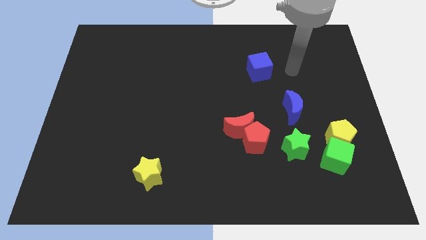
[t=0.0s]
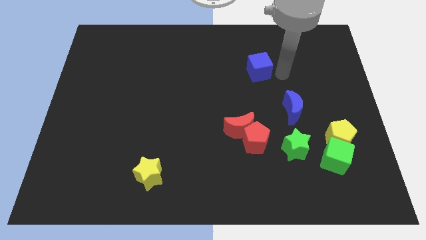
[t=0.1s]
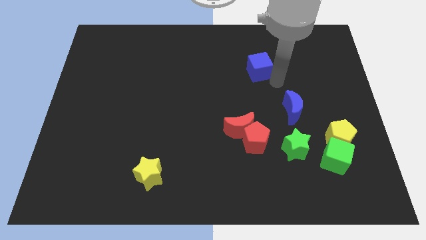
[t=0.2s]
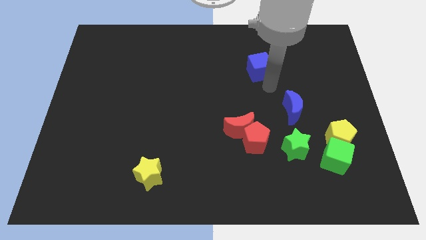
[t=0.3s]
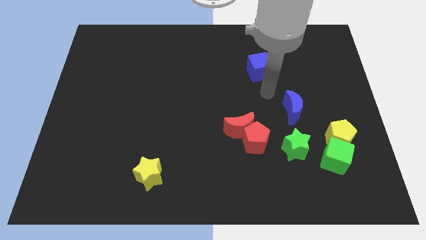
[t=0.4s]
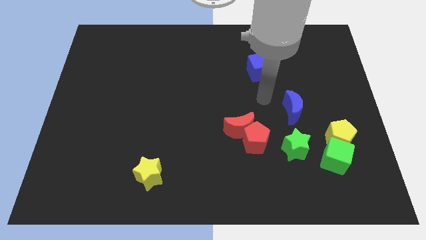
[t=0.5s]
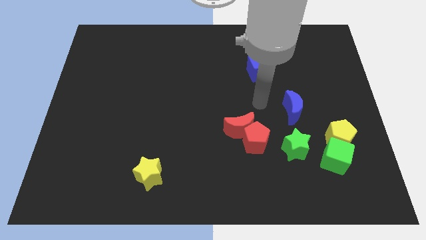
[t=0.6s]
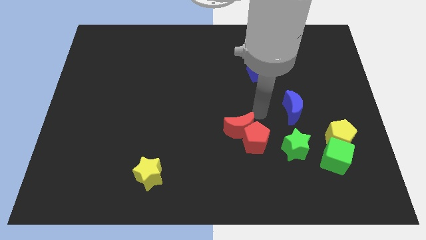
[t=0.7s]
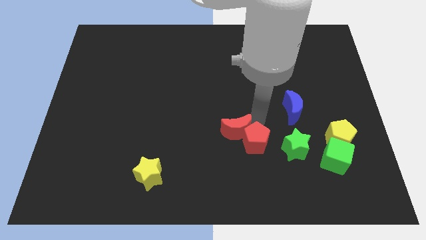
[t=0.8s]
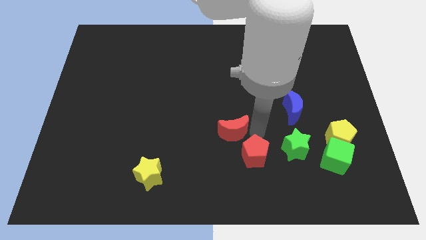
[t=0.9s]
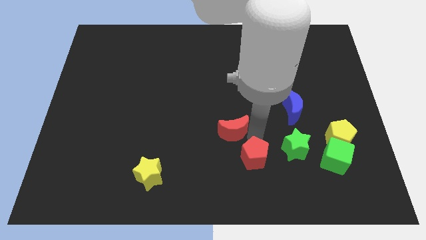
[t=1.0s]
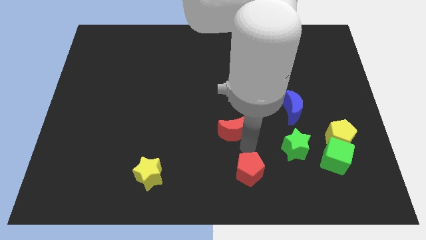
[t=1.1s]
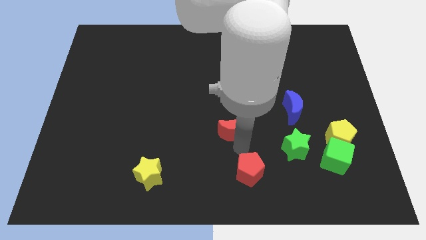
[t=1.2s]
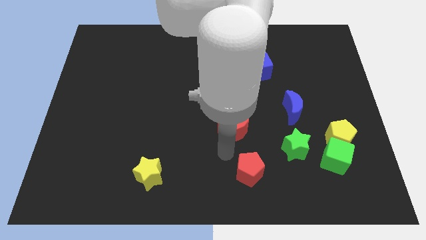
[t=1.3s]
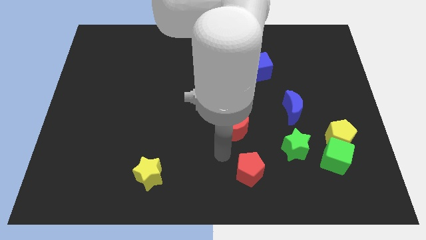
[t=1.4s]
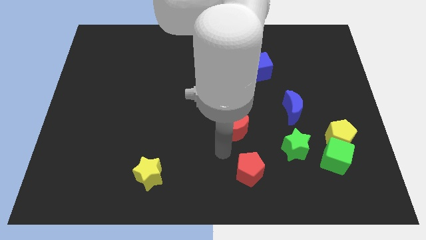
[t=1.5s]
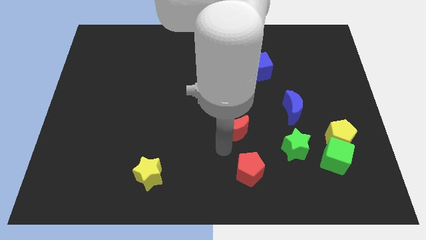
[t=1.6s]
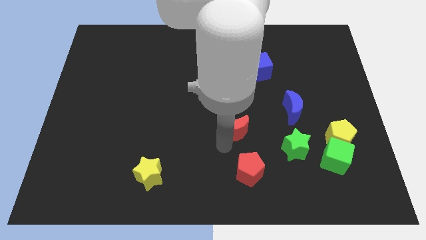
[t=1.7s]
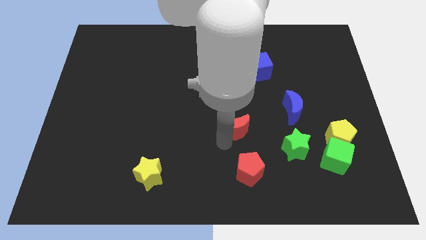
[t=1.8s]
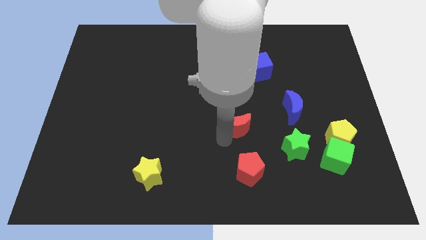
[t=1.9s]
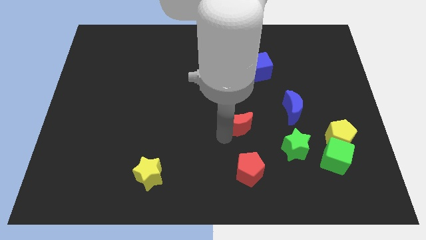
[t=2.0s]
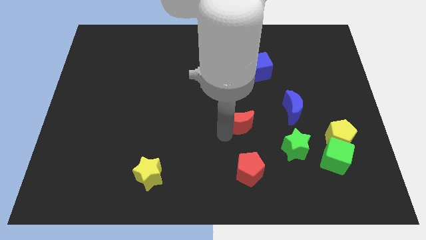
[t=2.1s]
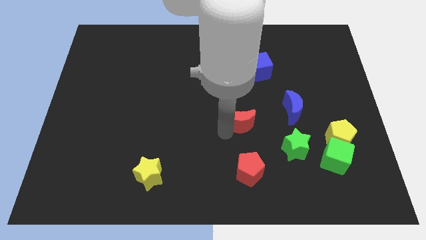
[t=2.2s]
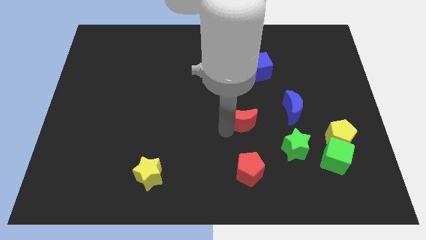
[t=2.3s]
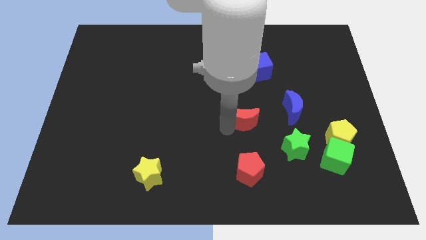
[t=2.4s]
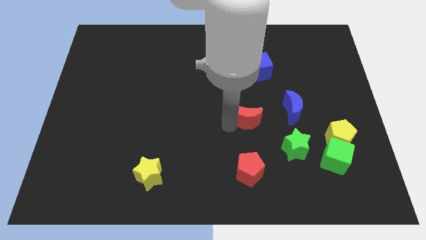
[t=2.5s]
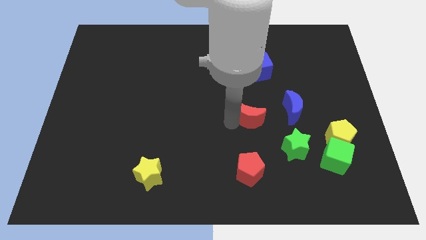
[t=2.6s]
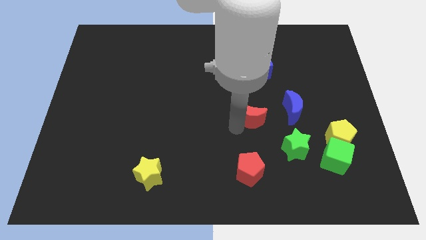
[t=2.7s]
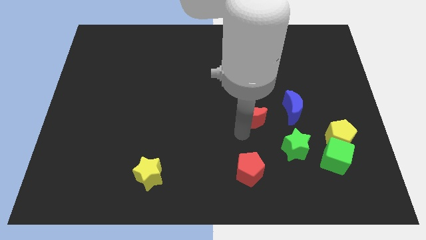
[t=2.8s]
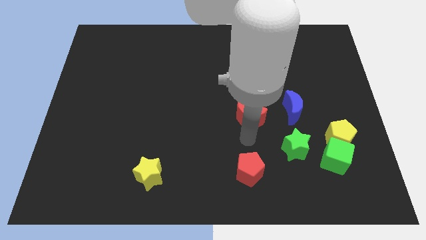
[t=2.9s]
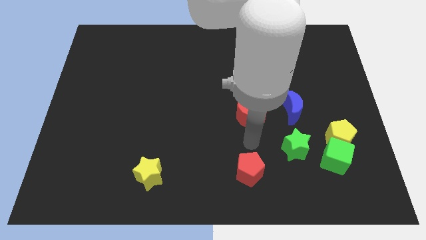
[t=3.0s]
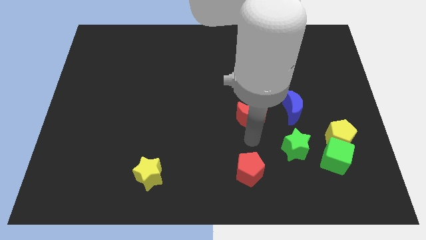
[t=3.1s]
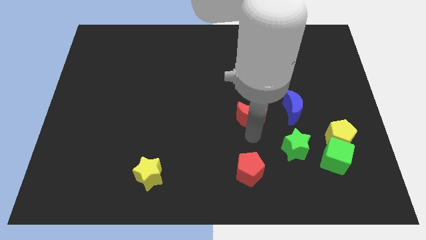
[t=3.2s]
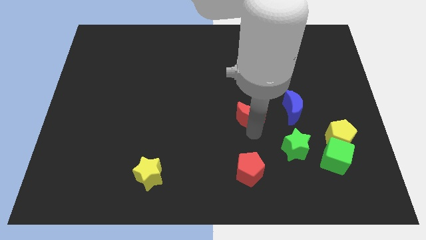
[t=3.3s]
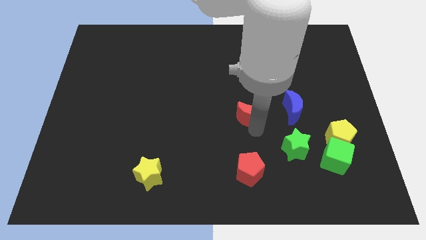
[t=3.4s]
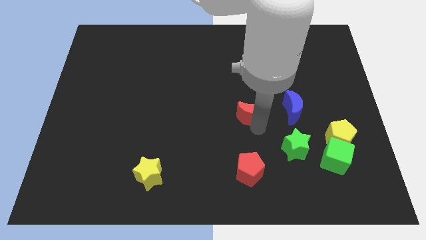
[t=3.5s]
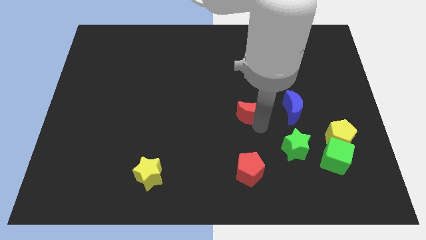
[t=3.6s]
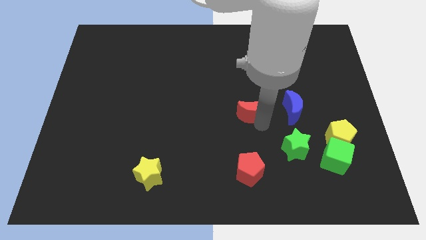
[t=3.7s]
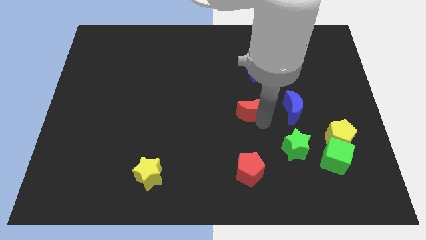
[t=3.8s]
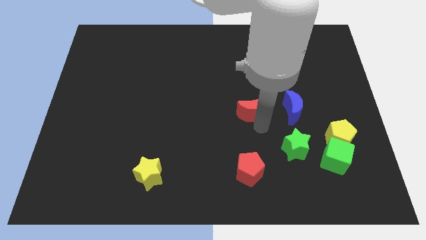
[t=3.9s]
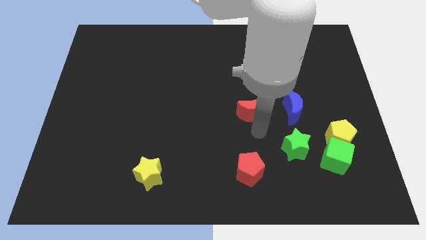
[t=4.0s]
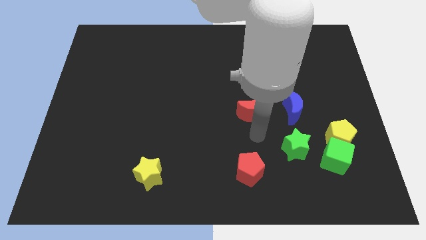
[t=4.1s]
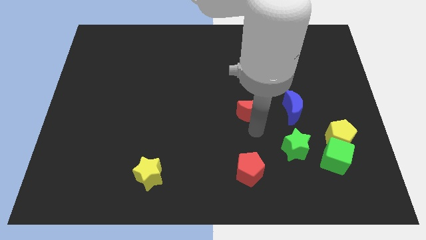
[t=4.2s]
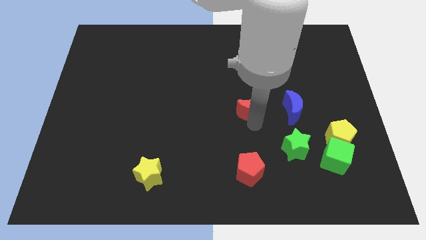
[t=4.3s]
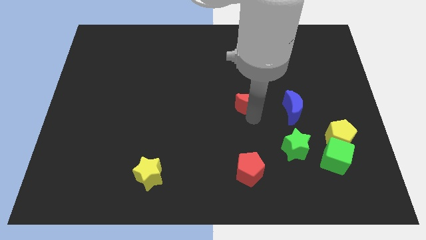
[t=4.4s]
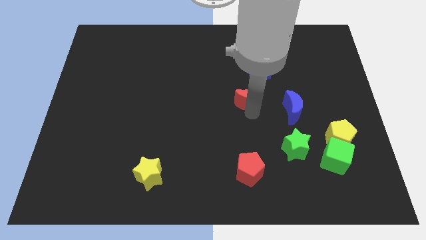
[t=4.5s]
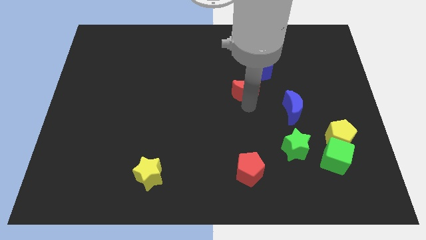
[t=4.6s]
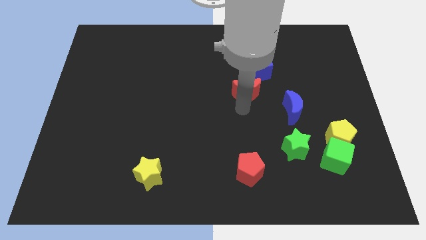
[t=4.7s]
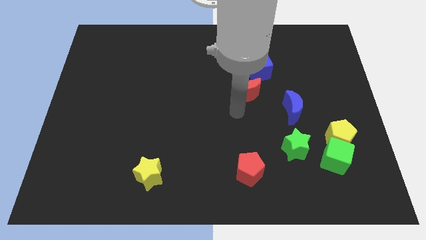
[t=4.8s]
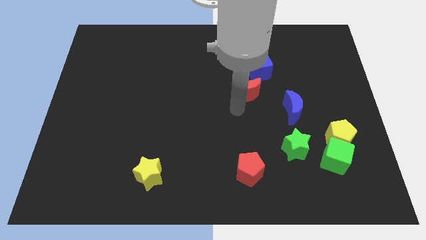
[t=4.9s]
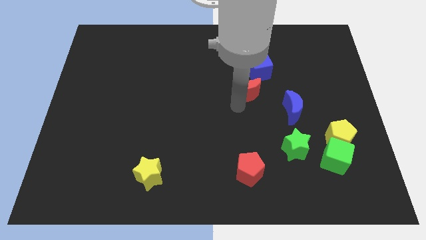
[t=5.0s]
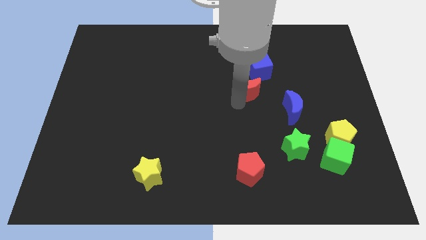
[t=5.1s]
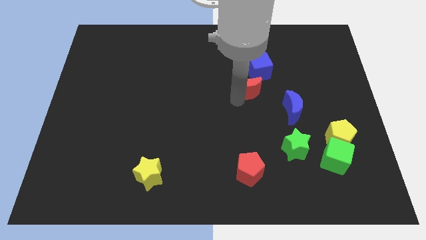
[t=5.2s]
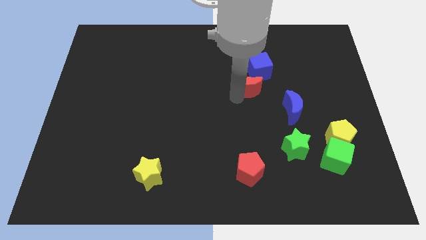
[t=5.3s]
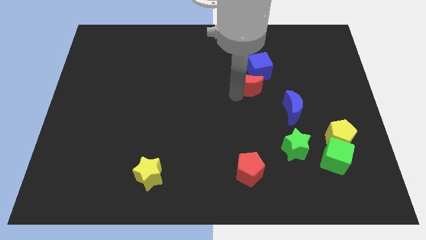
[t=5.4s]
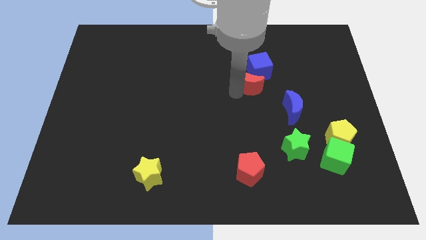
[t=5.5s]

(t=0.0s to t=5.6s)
push the red moon to the blue cube

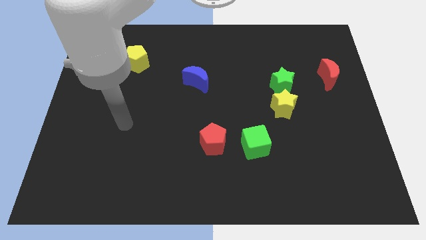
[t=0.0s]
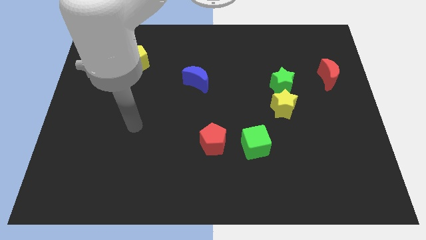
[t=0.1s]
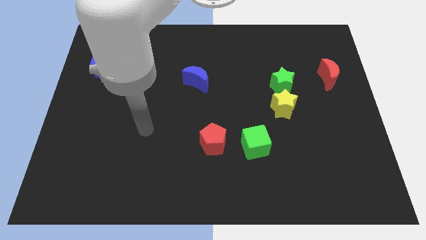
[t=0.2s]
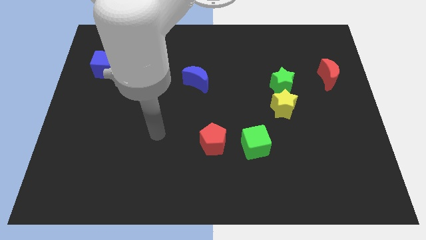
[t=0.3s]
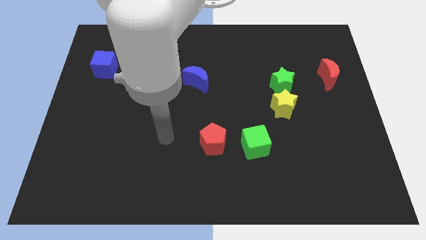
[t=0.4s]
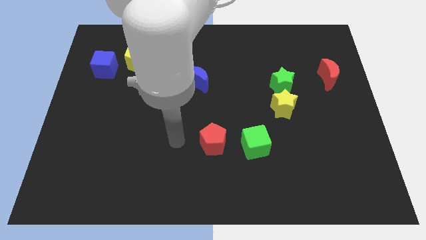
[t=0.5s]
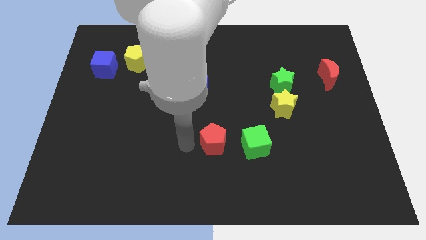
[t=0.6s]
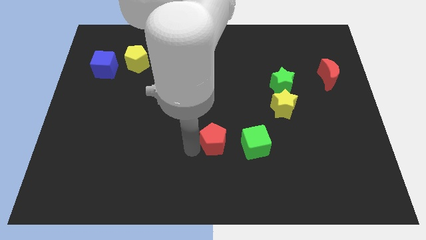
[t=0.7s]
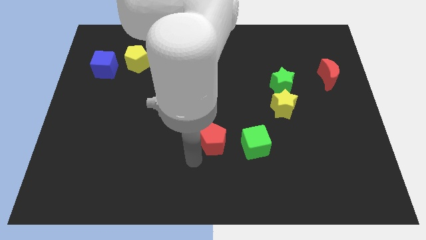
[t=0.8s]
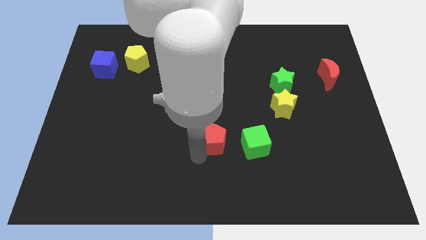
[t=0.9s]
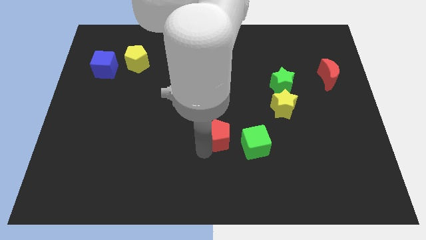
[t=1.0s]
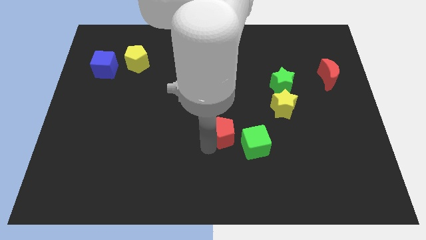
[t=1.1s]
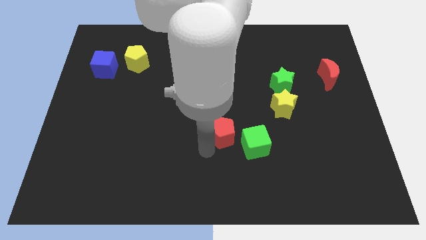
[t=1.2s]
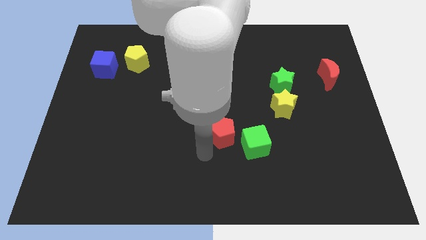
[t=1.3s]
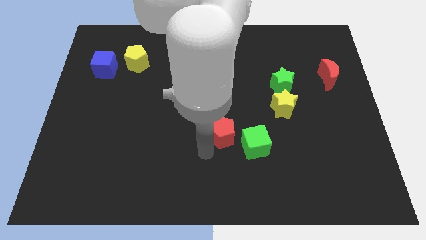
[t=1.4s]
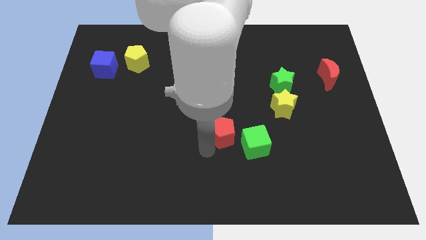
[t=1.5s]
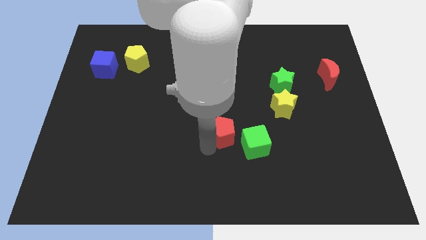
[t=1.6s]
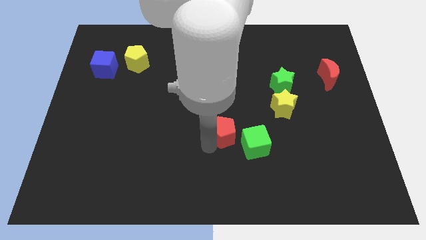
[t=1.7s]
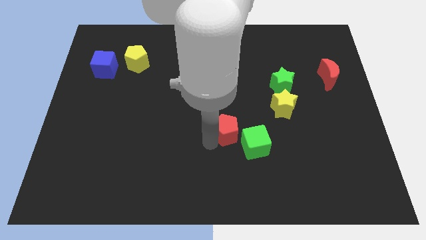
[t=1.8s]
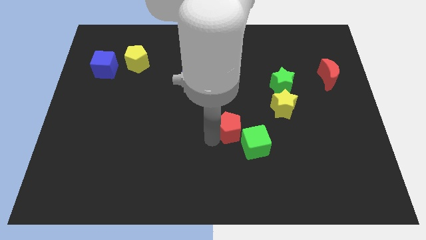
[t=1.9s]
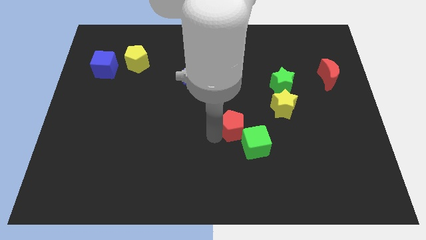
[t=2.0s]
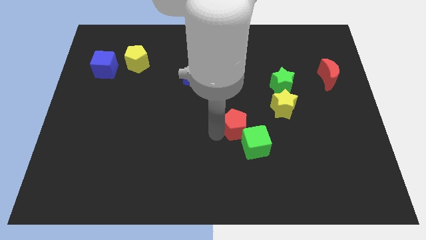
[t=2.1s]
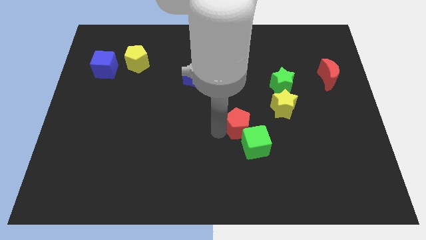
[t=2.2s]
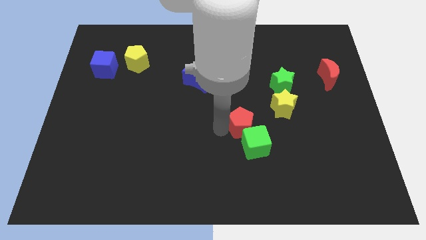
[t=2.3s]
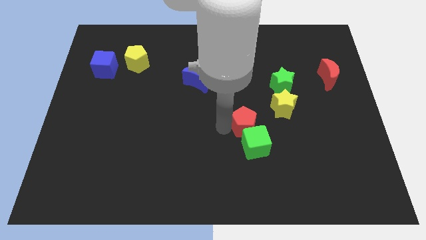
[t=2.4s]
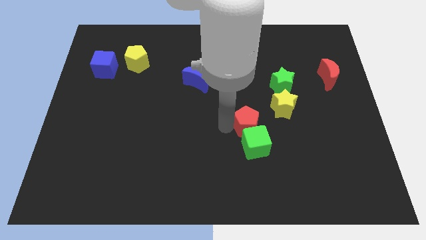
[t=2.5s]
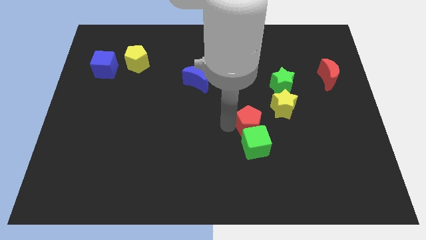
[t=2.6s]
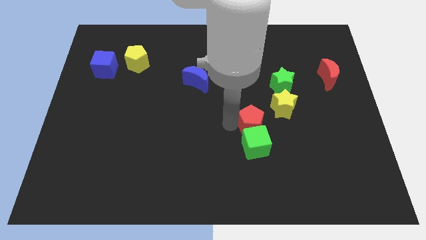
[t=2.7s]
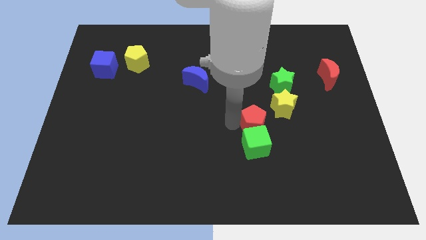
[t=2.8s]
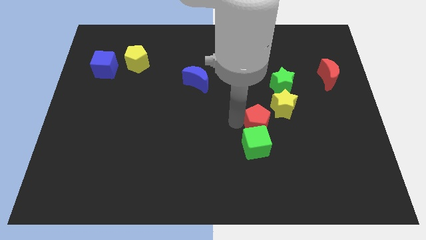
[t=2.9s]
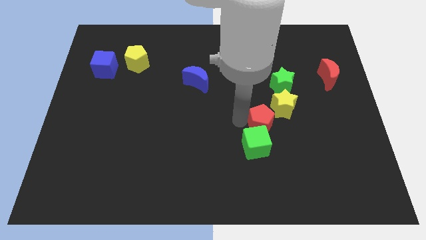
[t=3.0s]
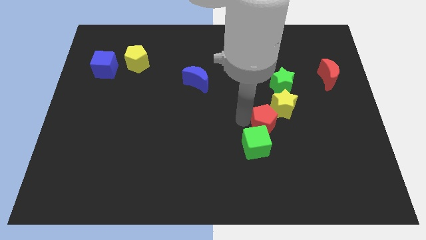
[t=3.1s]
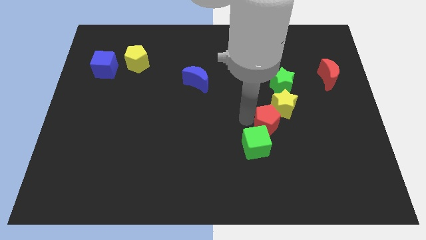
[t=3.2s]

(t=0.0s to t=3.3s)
move the red pentagon close to the yellow star
